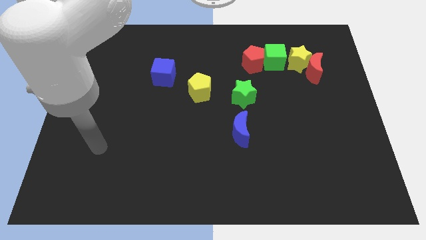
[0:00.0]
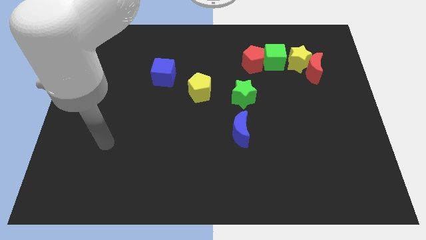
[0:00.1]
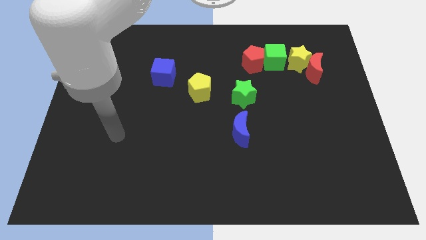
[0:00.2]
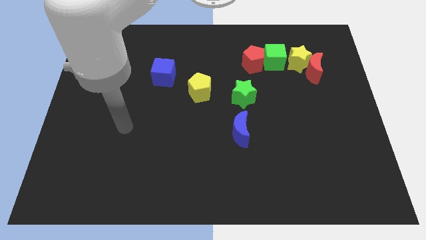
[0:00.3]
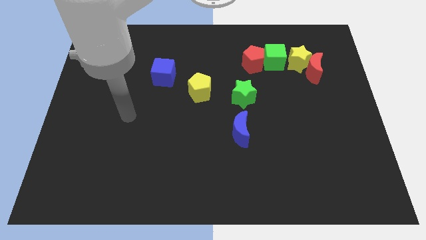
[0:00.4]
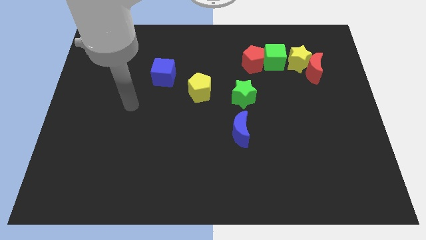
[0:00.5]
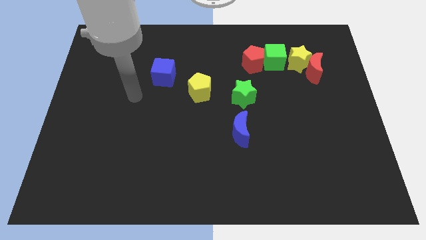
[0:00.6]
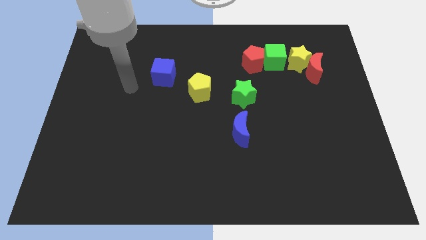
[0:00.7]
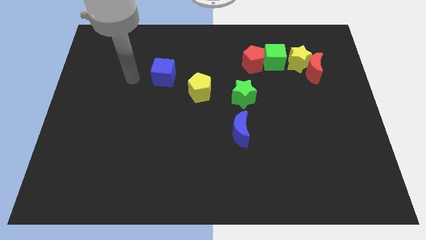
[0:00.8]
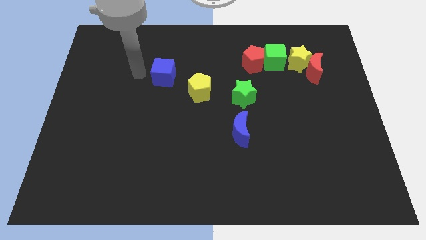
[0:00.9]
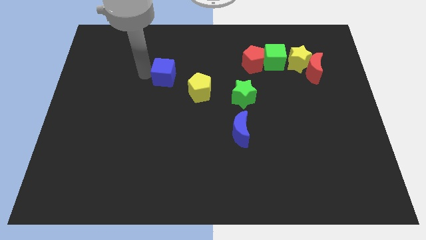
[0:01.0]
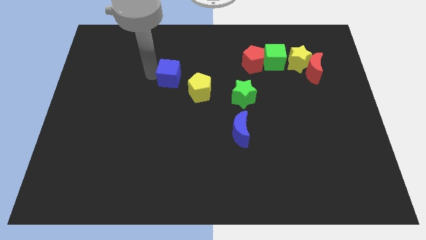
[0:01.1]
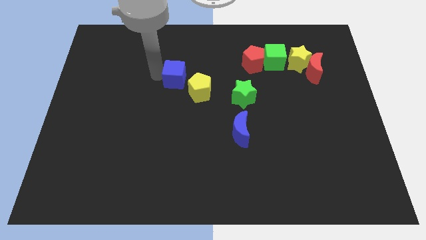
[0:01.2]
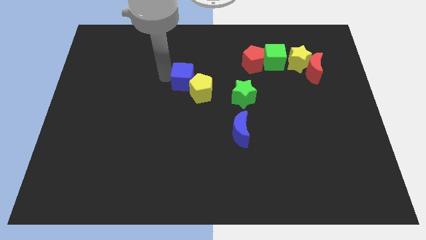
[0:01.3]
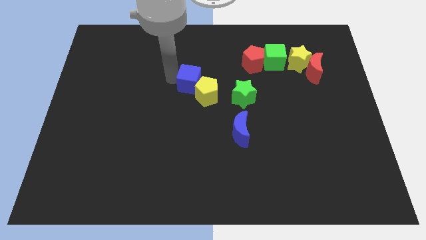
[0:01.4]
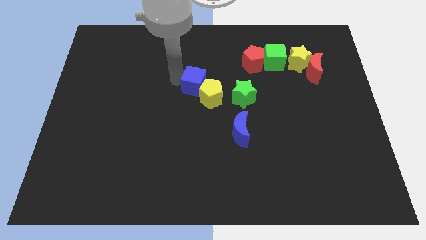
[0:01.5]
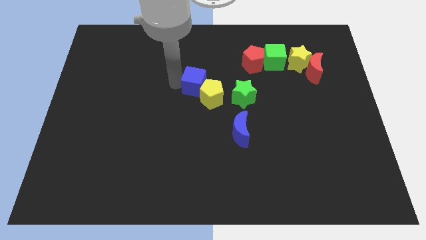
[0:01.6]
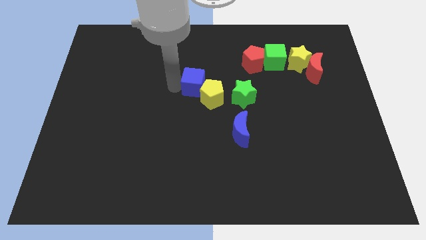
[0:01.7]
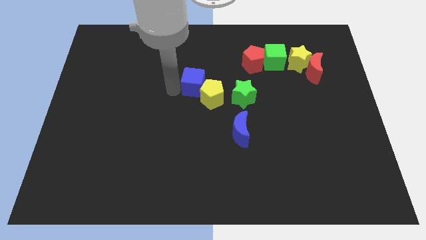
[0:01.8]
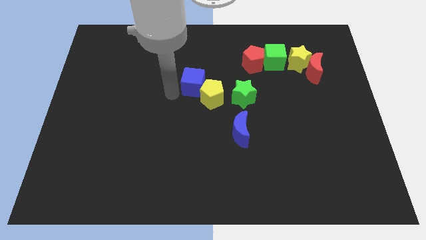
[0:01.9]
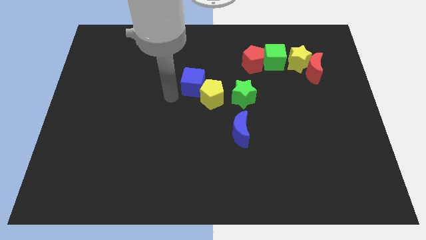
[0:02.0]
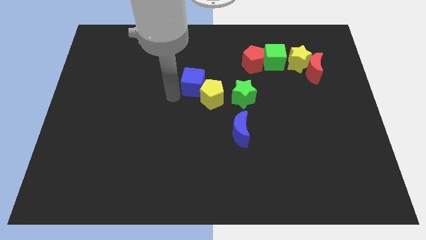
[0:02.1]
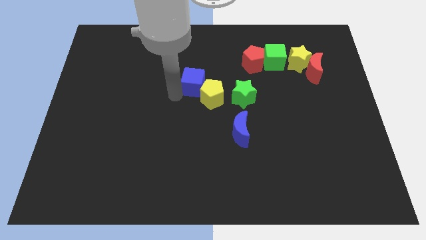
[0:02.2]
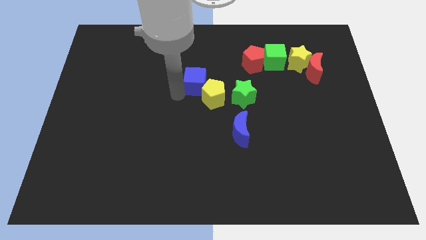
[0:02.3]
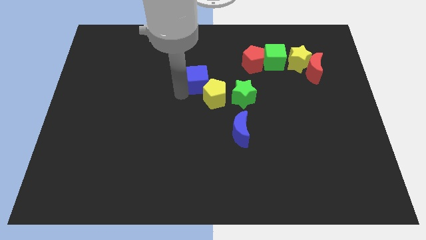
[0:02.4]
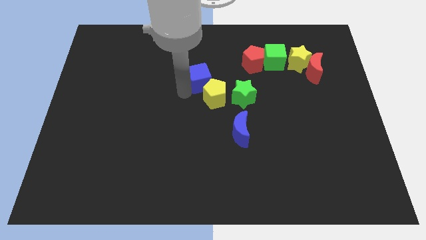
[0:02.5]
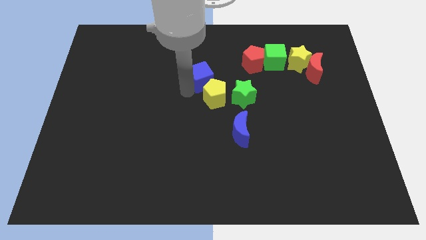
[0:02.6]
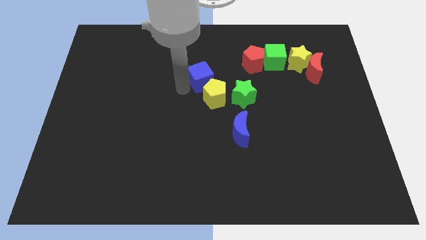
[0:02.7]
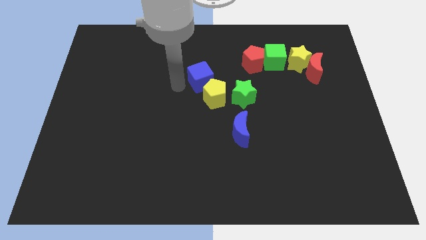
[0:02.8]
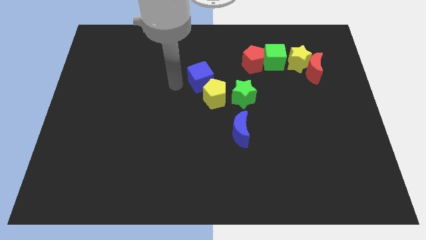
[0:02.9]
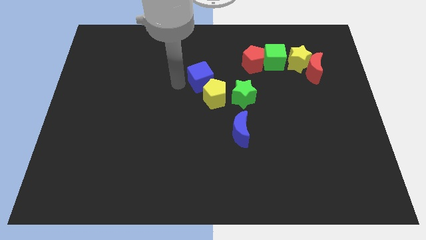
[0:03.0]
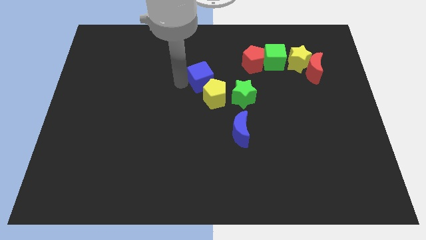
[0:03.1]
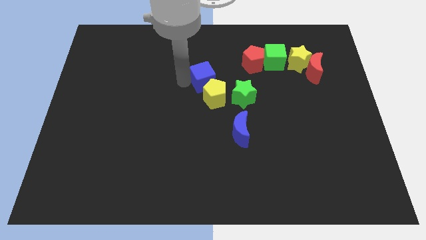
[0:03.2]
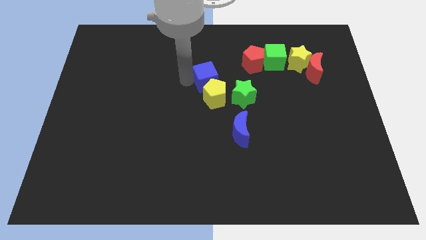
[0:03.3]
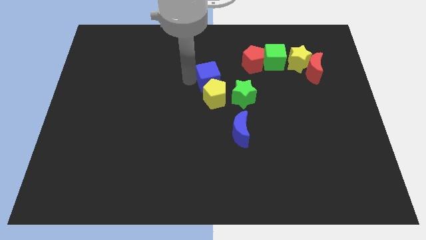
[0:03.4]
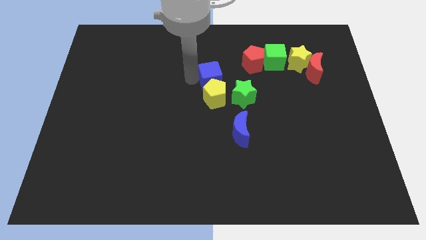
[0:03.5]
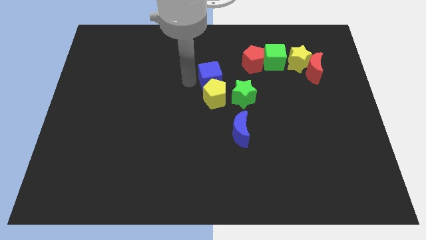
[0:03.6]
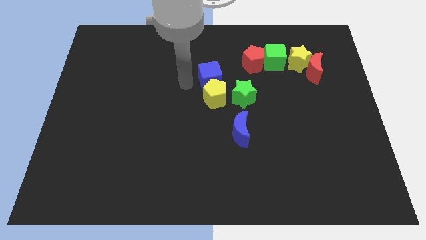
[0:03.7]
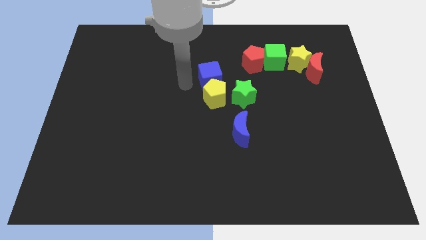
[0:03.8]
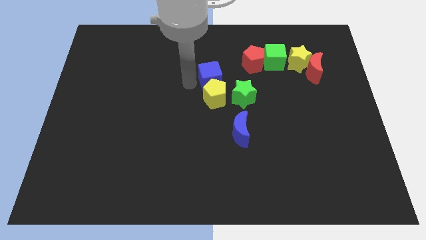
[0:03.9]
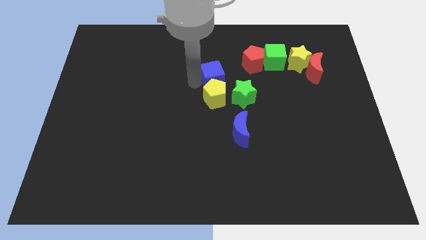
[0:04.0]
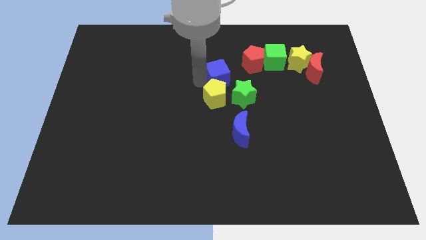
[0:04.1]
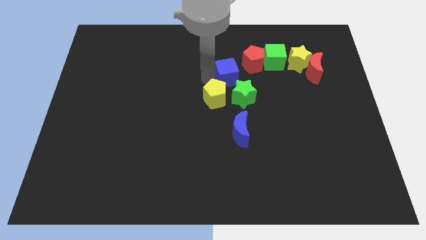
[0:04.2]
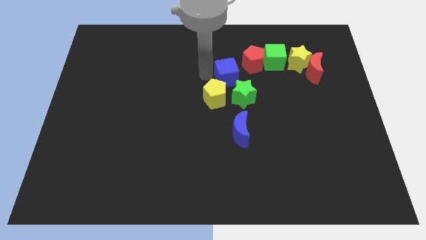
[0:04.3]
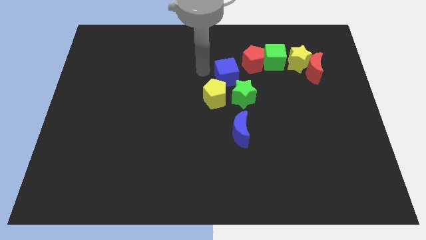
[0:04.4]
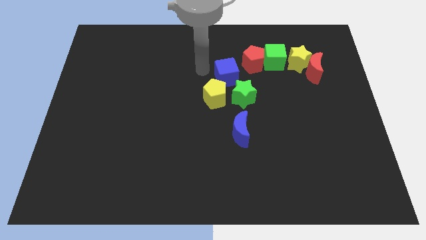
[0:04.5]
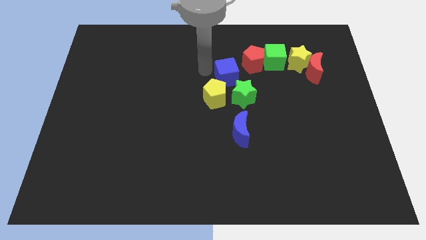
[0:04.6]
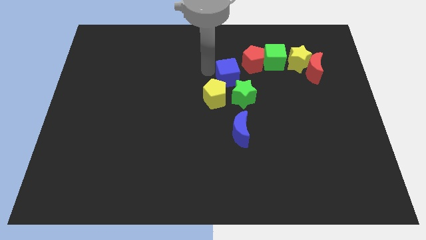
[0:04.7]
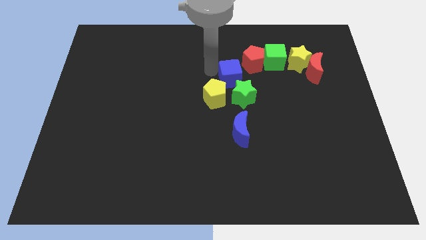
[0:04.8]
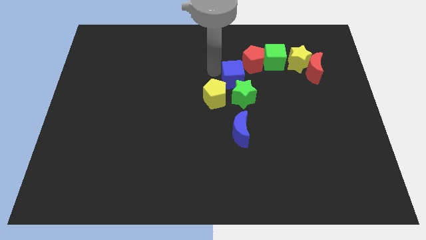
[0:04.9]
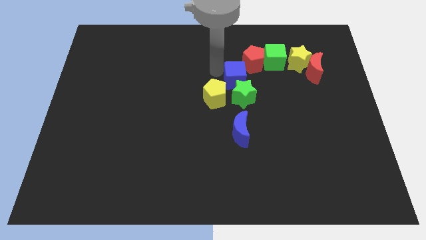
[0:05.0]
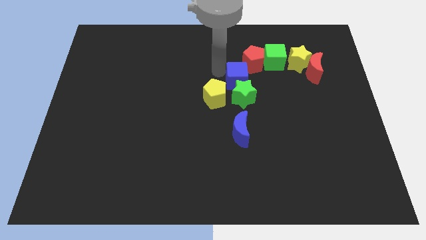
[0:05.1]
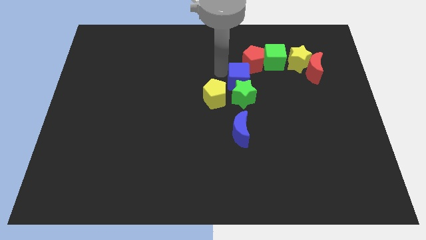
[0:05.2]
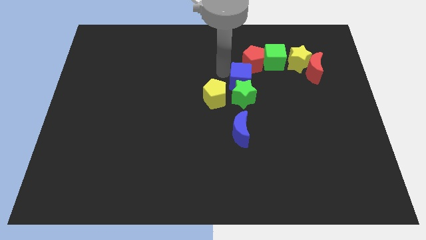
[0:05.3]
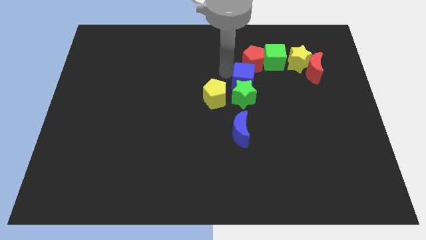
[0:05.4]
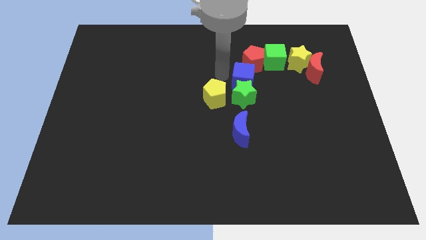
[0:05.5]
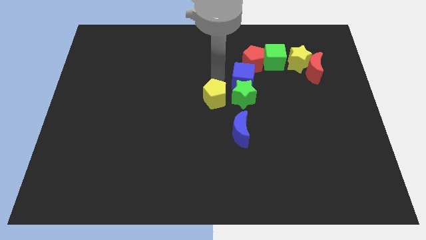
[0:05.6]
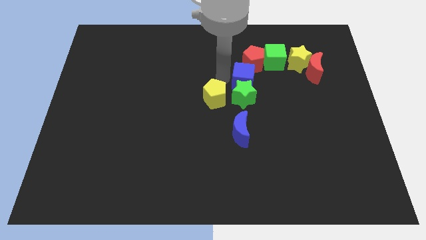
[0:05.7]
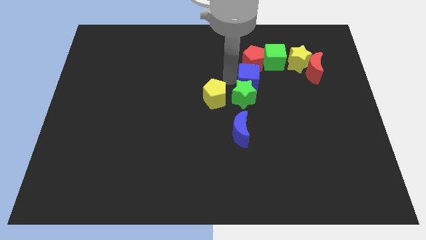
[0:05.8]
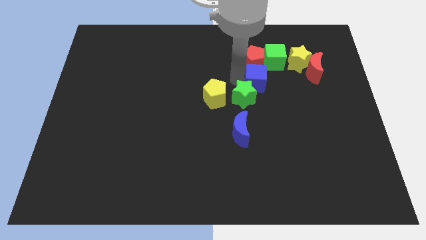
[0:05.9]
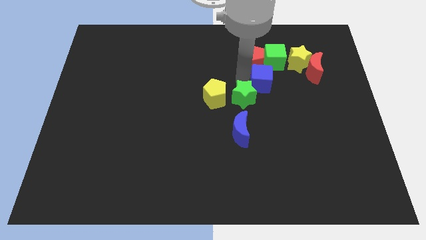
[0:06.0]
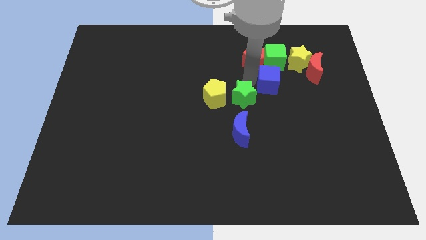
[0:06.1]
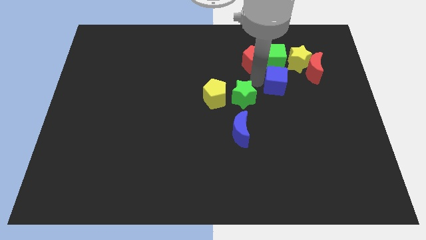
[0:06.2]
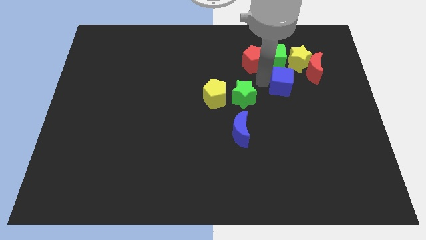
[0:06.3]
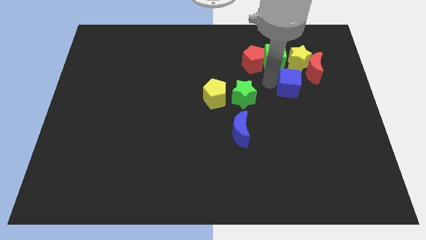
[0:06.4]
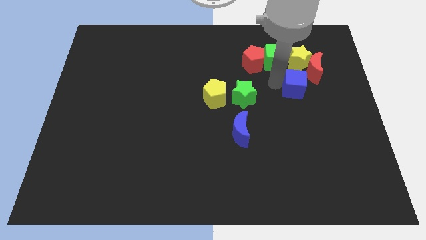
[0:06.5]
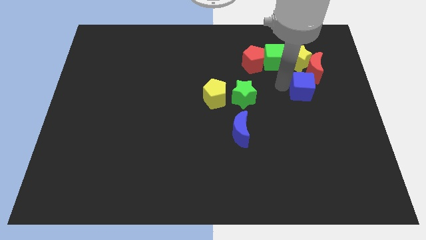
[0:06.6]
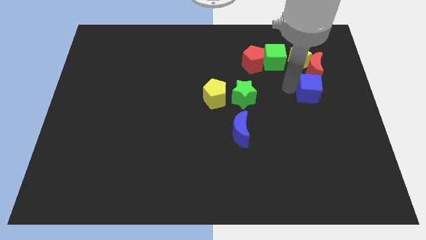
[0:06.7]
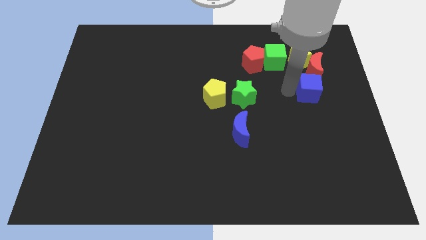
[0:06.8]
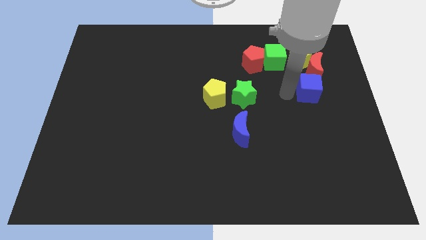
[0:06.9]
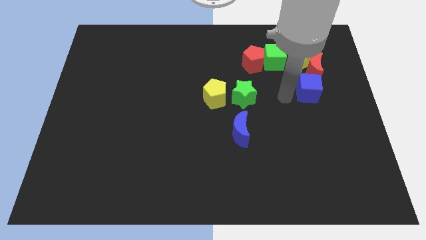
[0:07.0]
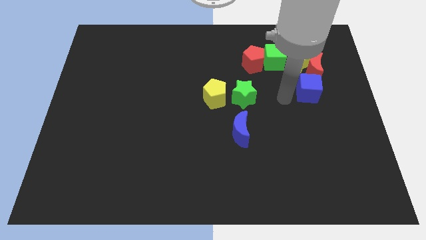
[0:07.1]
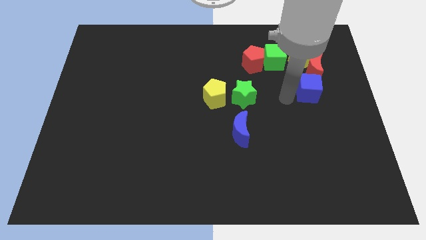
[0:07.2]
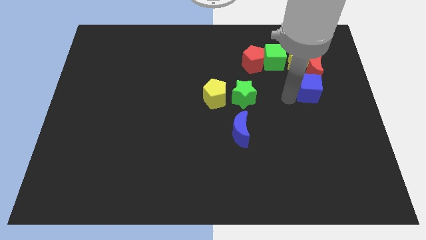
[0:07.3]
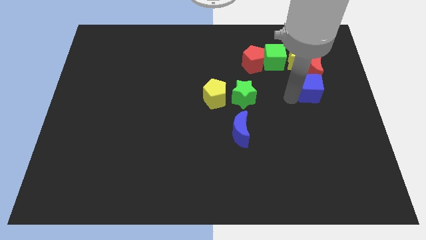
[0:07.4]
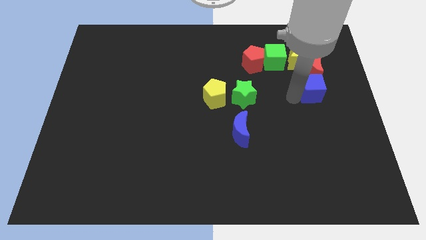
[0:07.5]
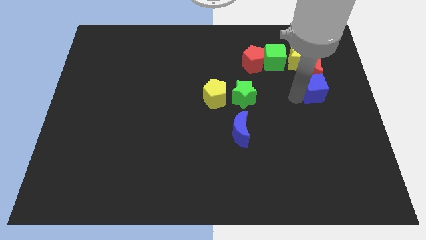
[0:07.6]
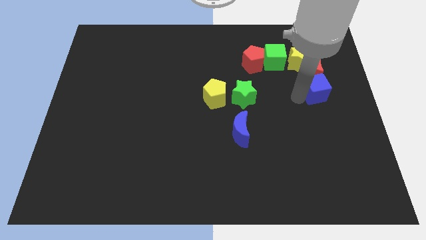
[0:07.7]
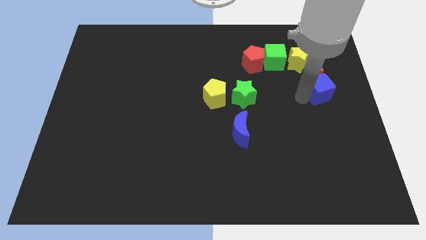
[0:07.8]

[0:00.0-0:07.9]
push the blue cube to the center right
